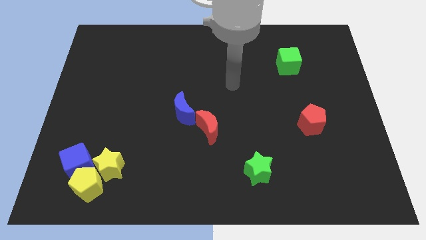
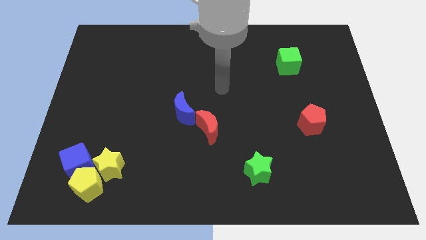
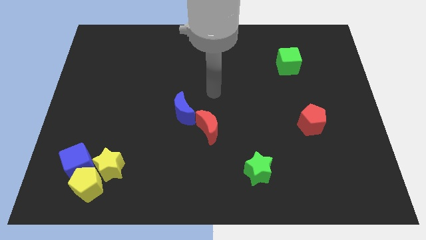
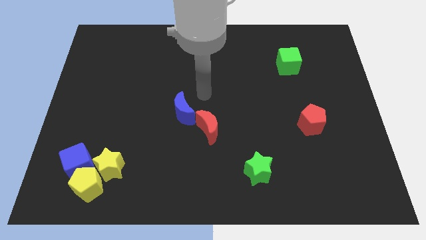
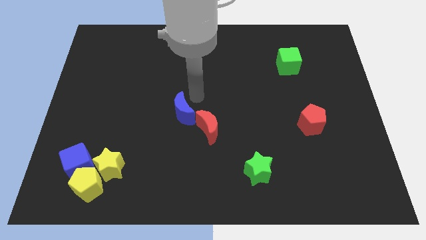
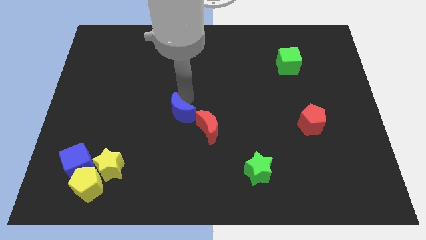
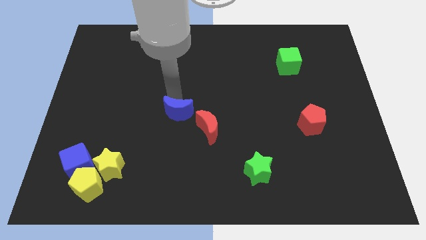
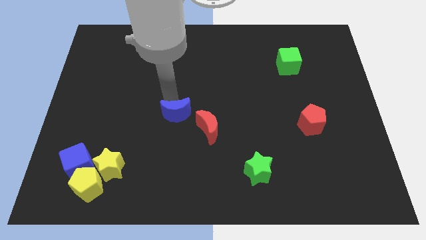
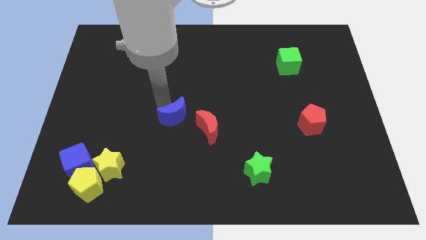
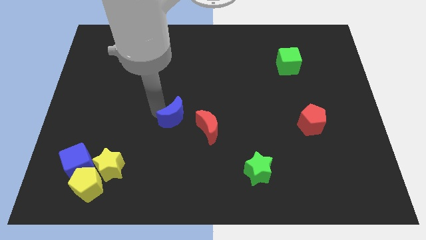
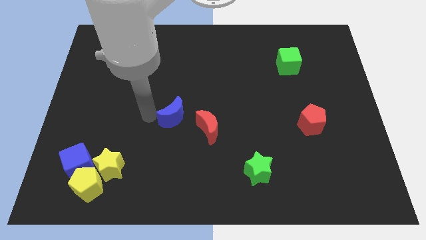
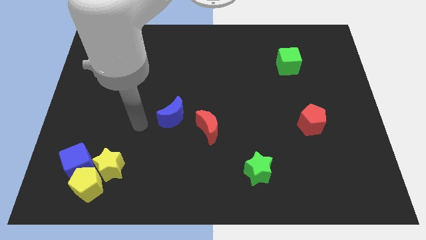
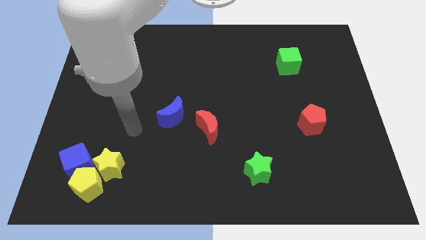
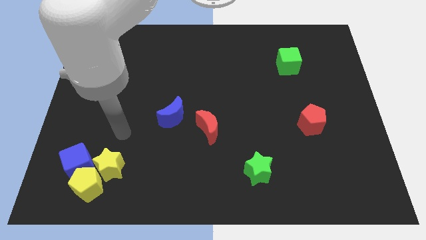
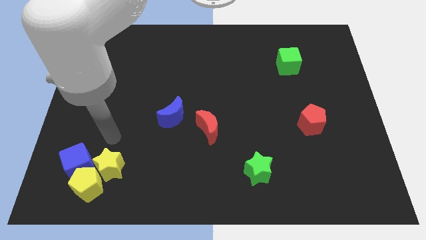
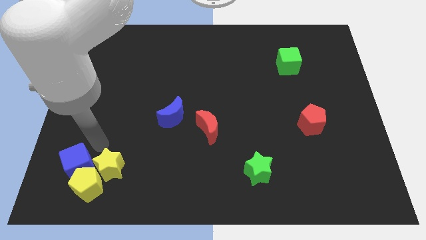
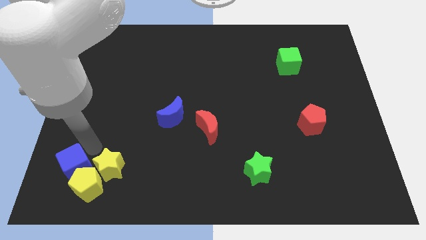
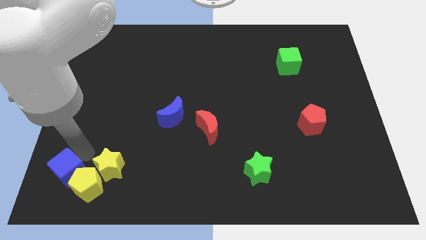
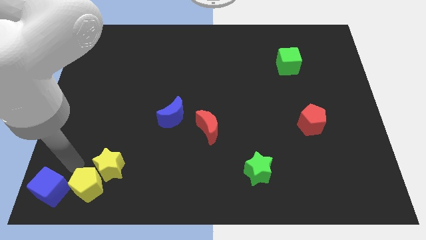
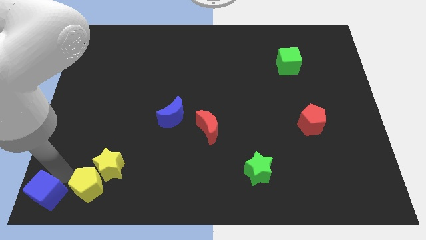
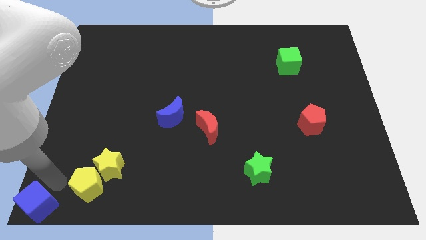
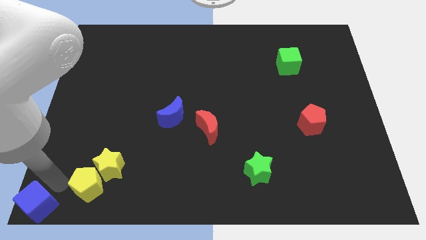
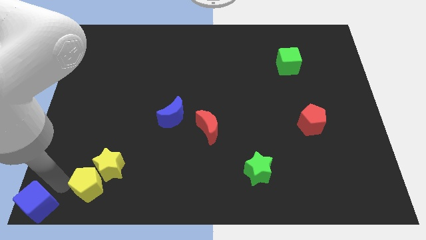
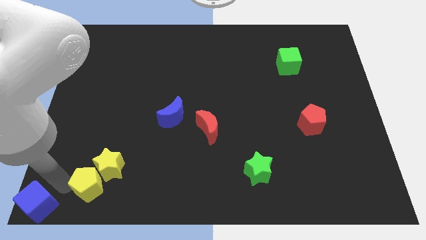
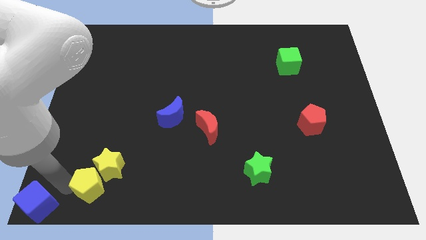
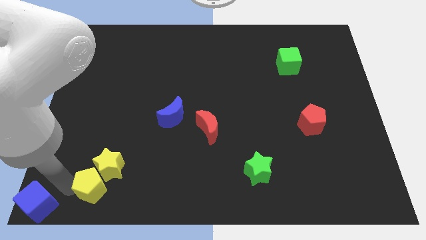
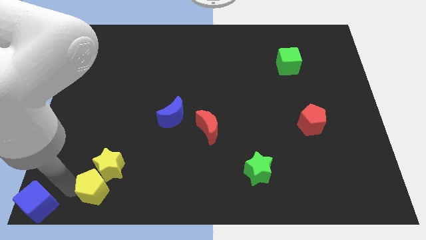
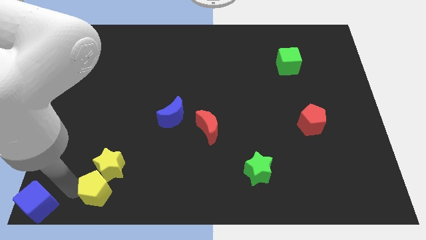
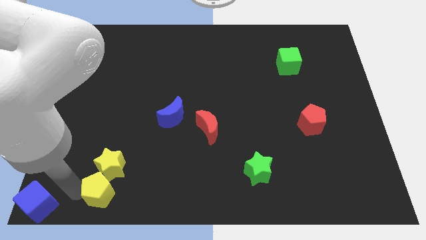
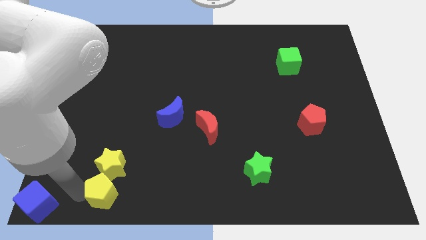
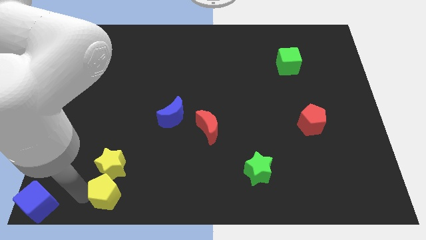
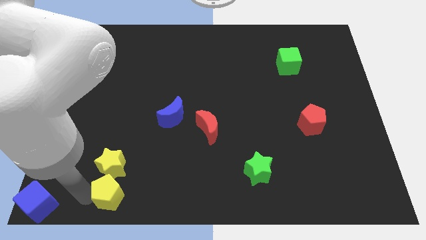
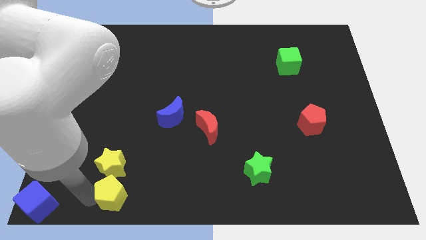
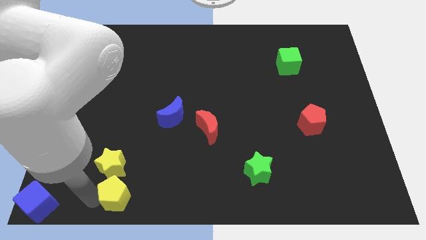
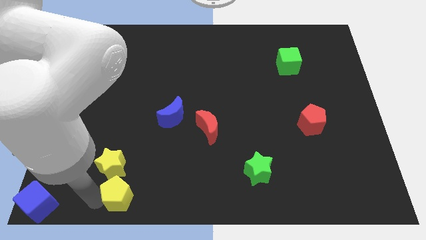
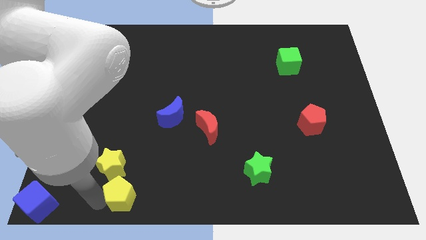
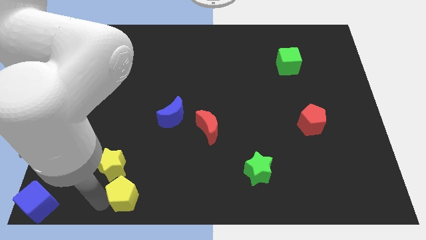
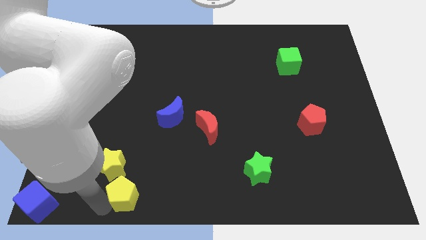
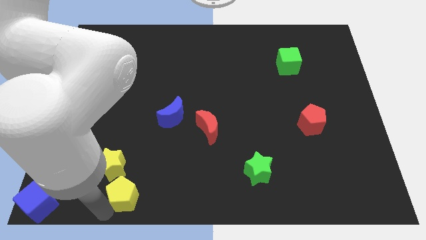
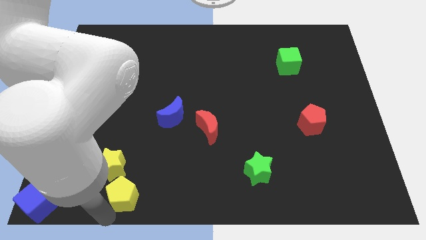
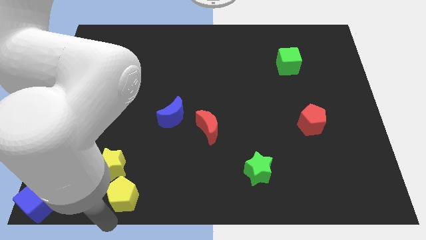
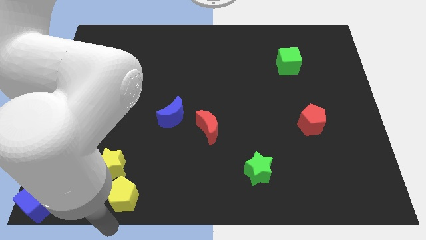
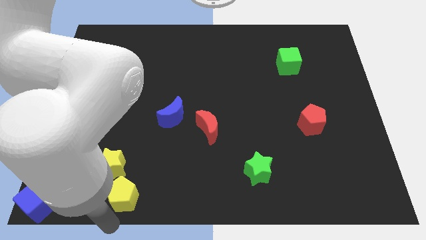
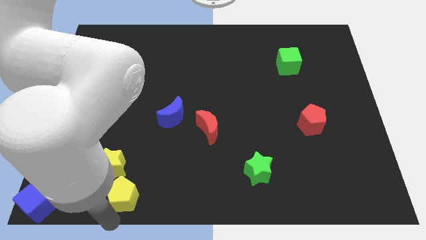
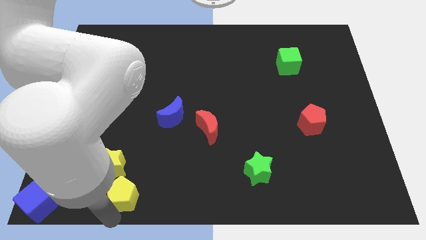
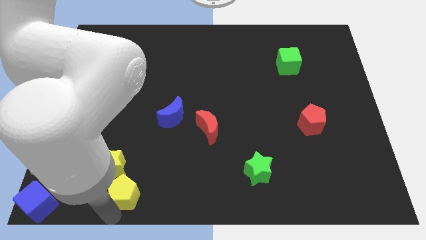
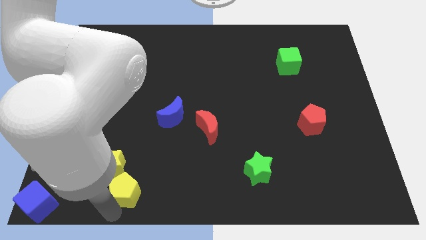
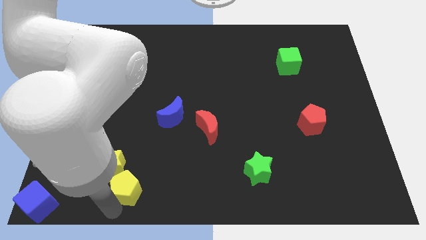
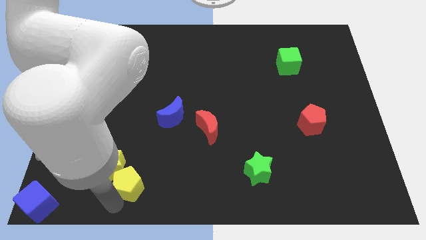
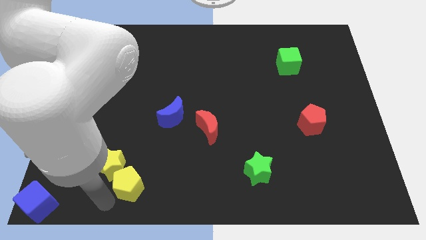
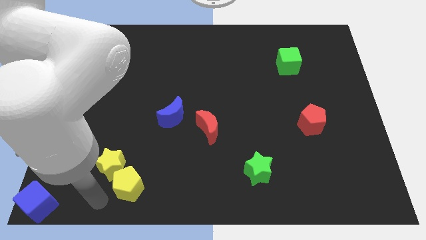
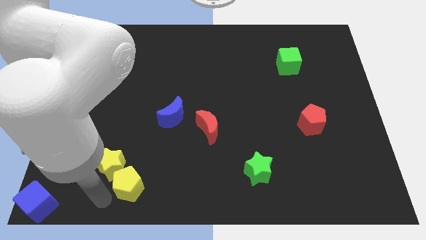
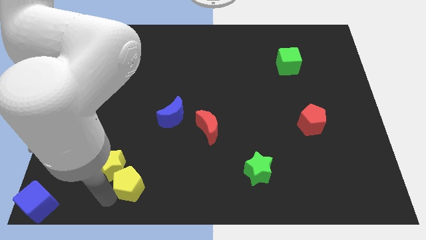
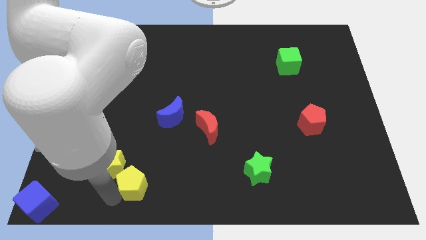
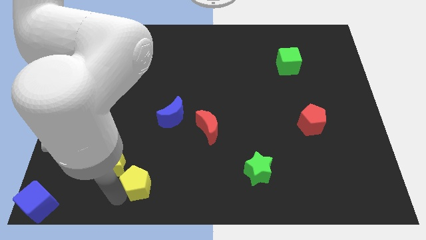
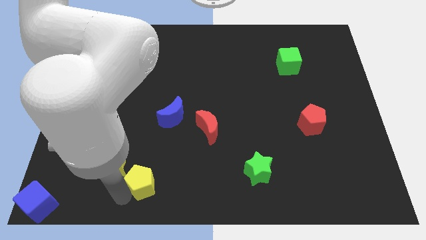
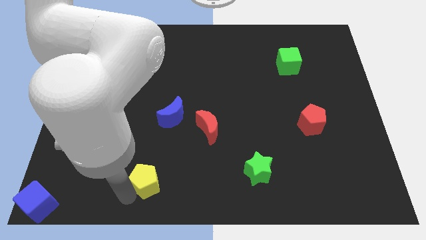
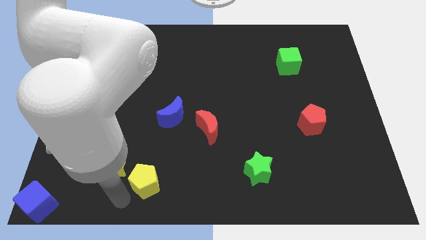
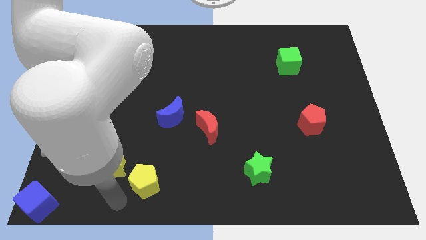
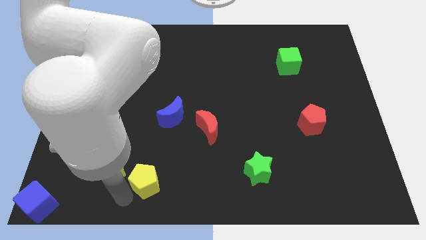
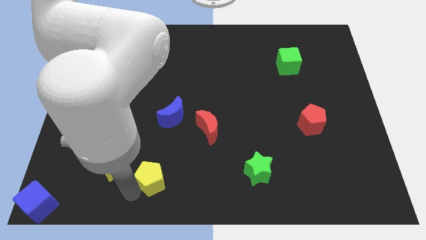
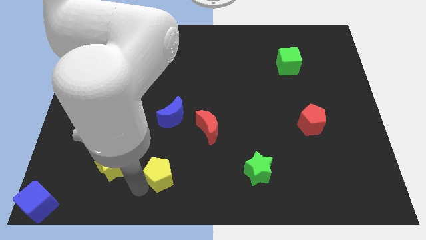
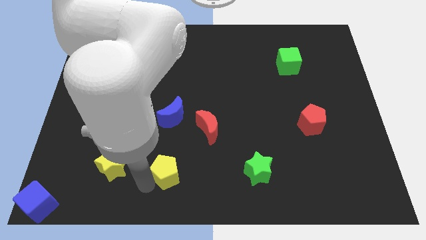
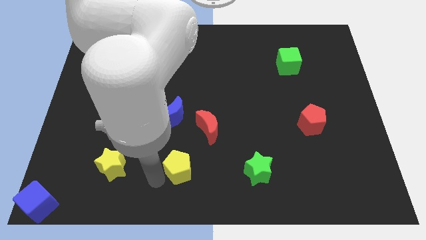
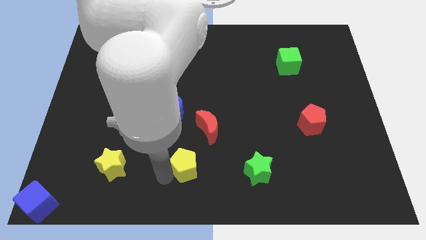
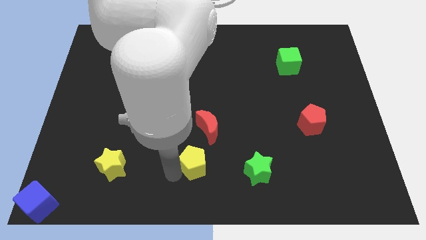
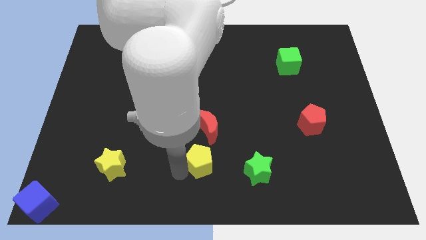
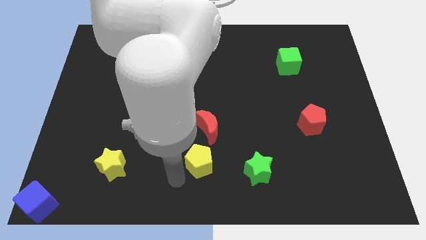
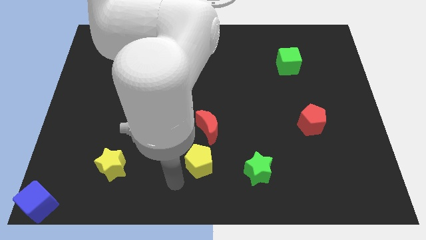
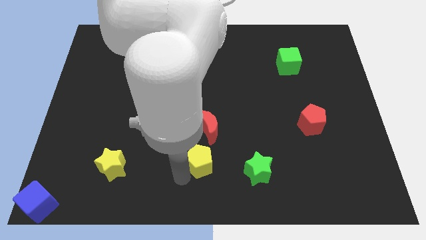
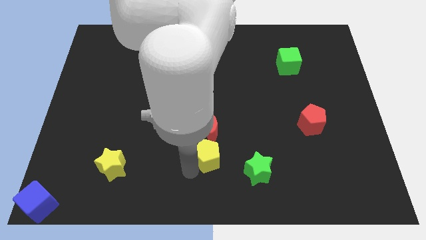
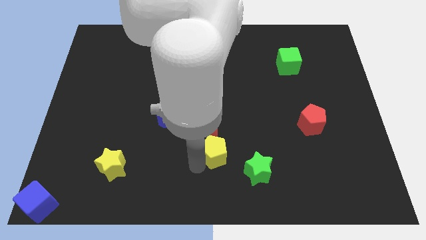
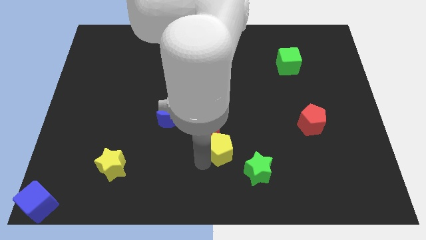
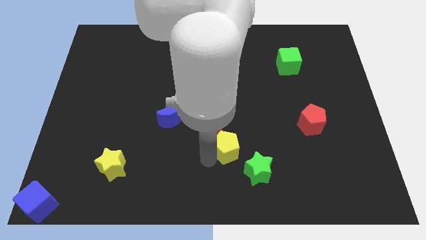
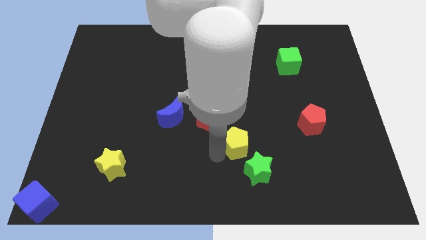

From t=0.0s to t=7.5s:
slide the yellow pentagon above the green star
